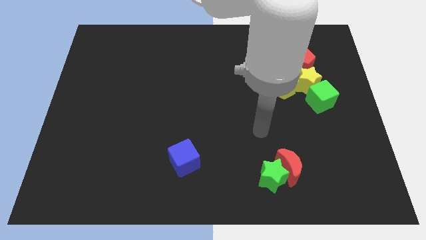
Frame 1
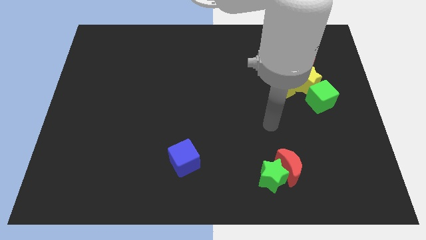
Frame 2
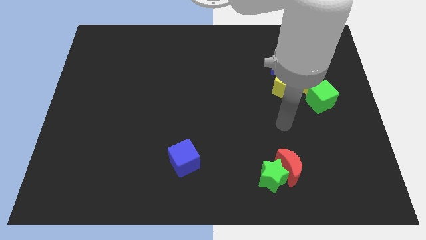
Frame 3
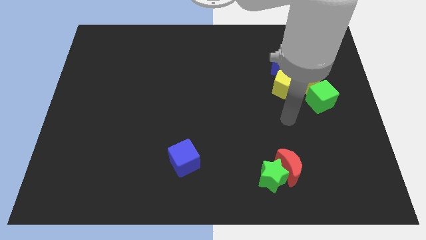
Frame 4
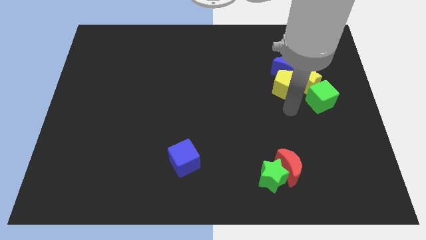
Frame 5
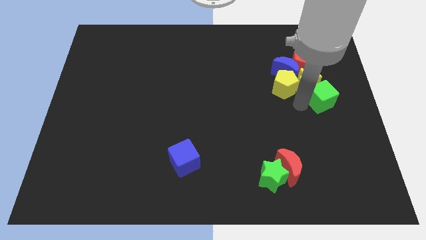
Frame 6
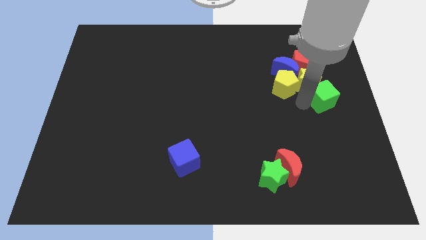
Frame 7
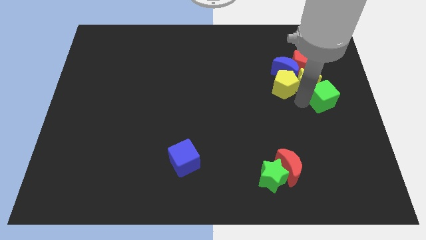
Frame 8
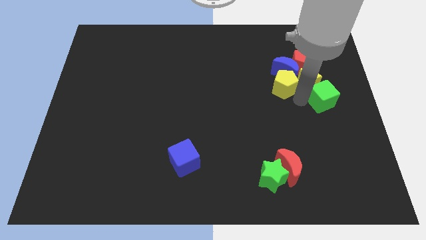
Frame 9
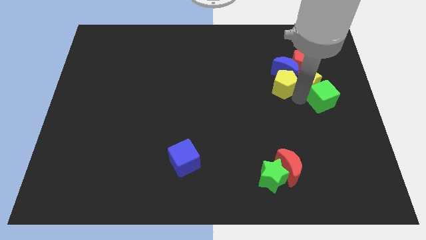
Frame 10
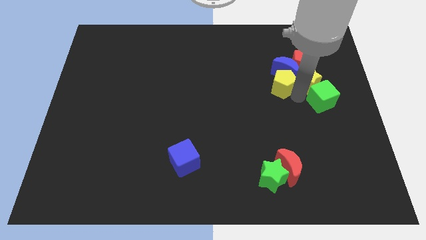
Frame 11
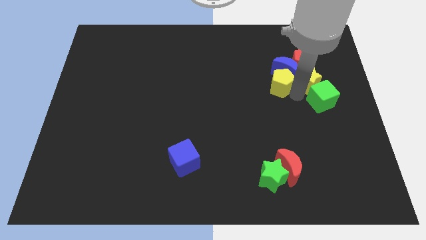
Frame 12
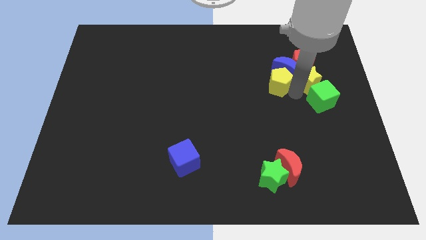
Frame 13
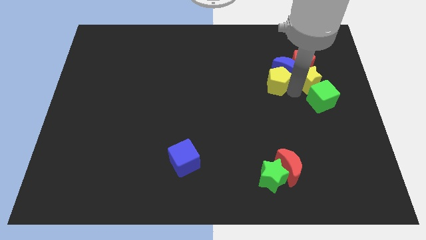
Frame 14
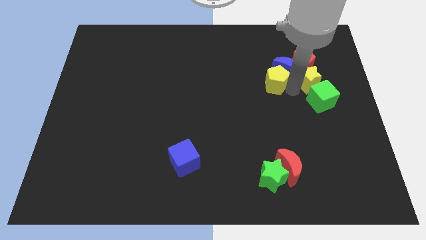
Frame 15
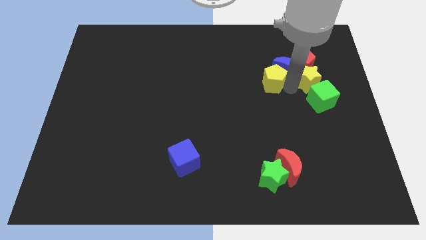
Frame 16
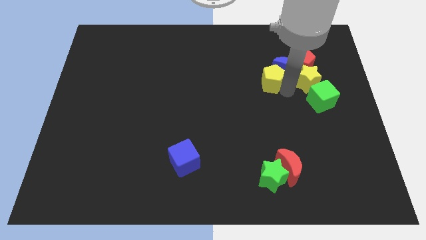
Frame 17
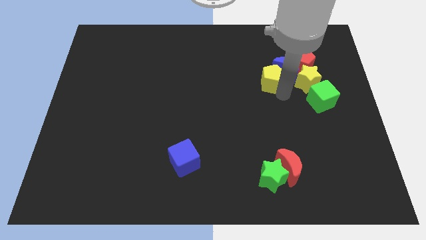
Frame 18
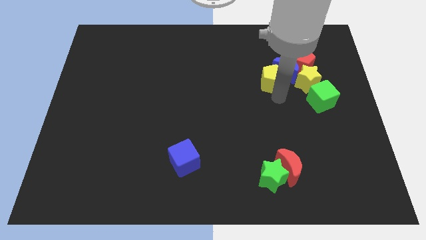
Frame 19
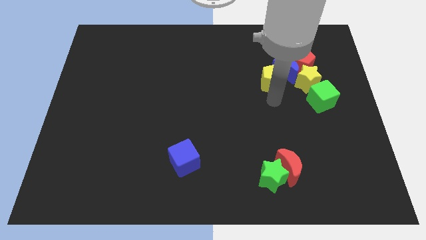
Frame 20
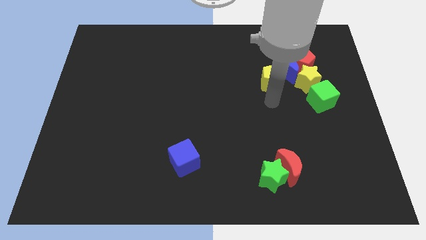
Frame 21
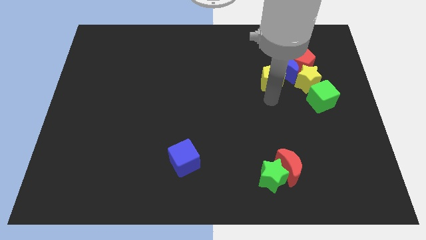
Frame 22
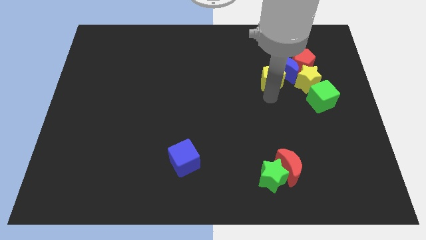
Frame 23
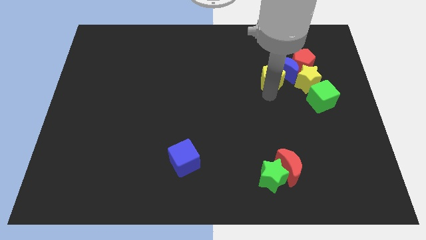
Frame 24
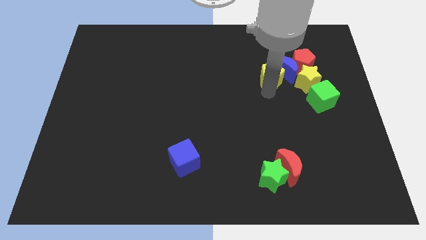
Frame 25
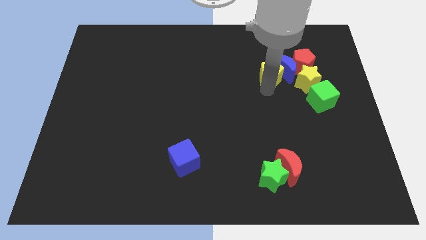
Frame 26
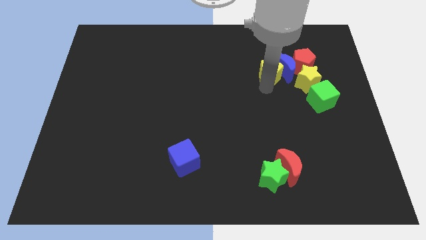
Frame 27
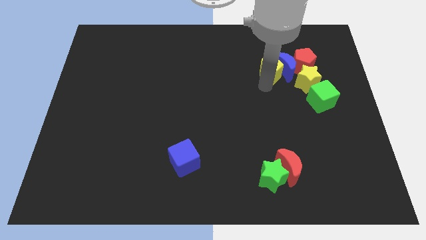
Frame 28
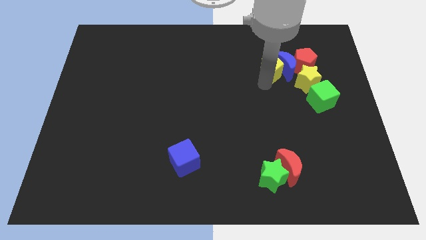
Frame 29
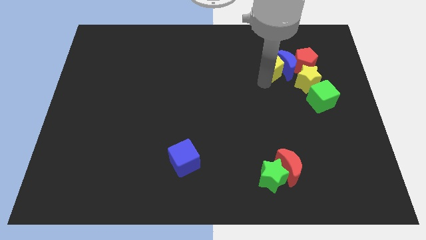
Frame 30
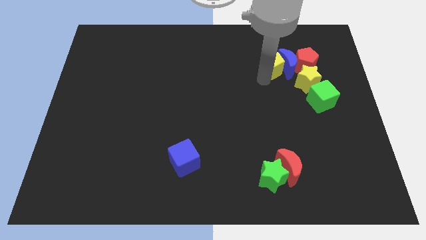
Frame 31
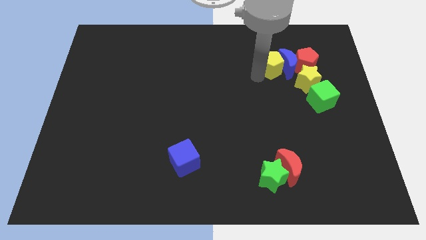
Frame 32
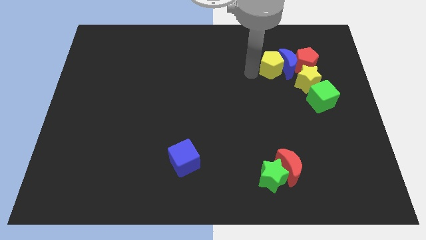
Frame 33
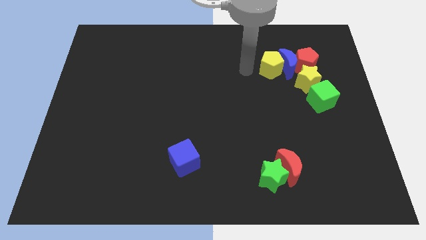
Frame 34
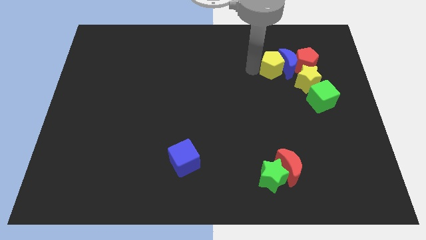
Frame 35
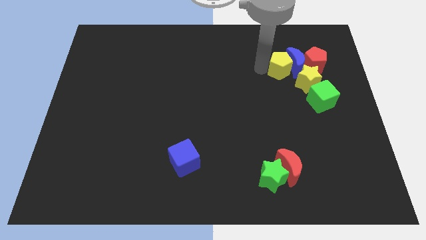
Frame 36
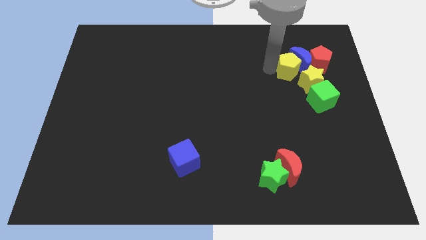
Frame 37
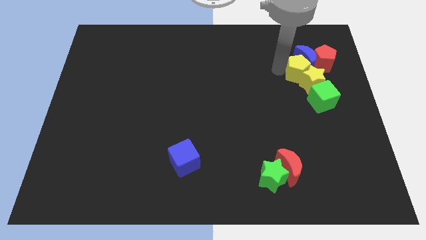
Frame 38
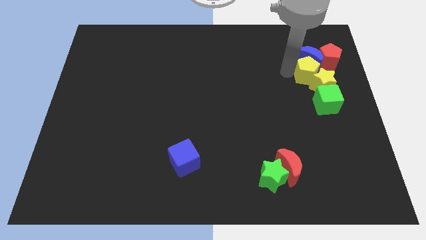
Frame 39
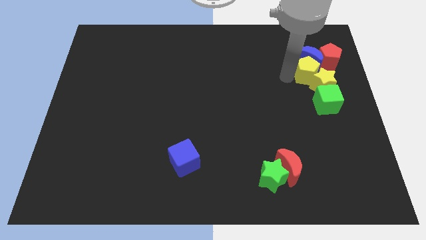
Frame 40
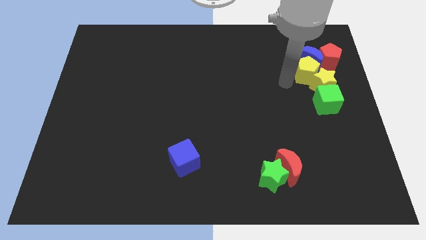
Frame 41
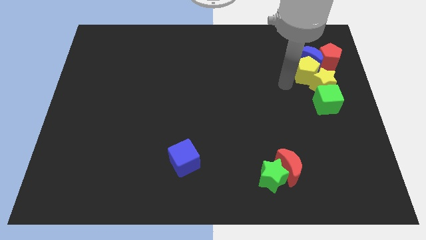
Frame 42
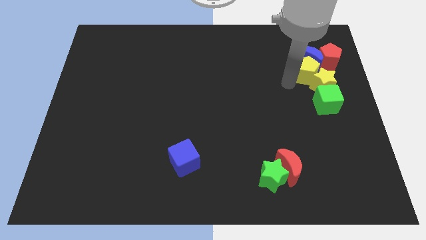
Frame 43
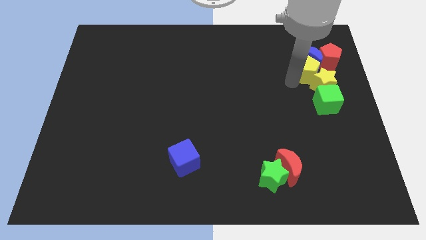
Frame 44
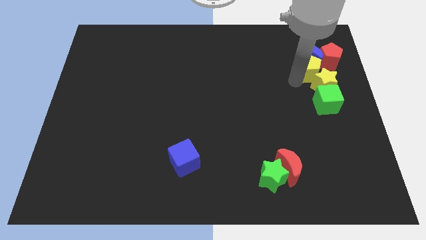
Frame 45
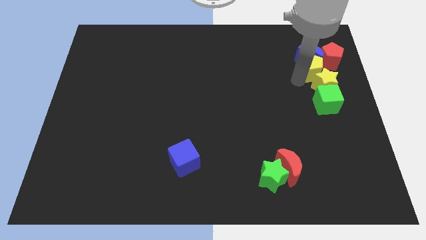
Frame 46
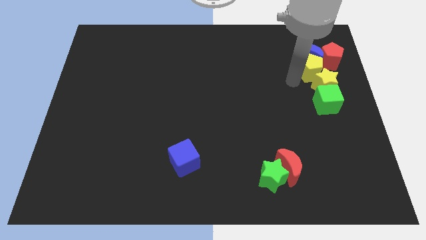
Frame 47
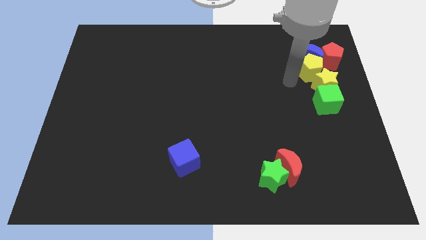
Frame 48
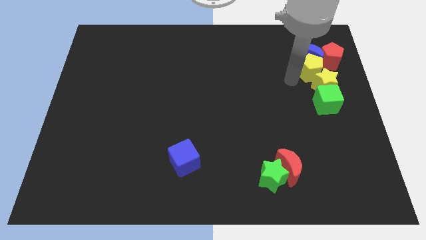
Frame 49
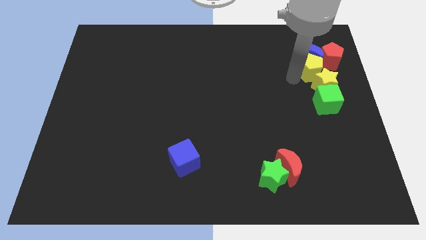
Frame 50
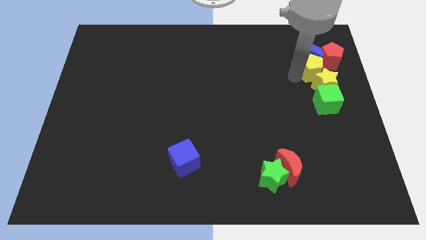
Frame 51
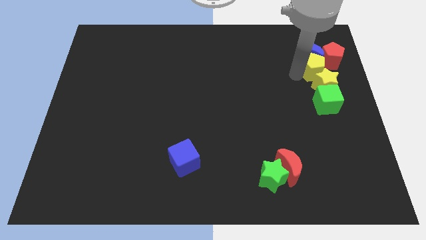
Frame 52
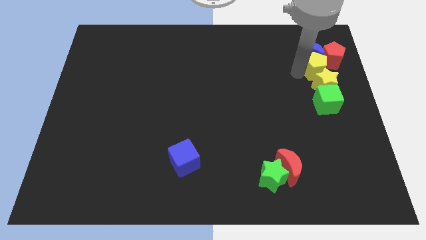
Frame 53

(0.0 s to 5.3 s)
put the yellow pentagon to the red pentagon

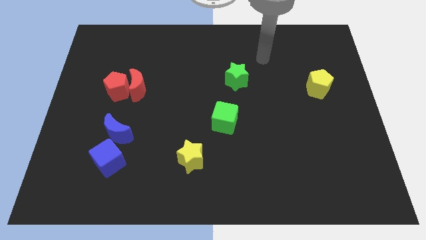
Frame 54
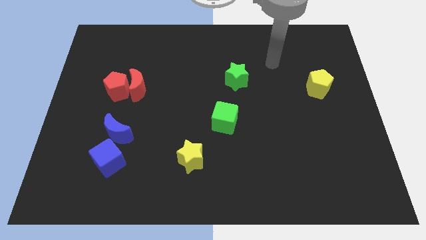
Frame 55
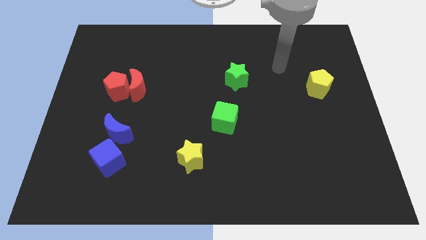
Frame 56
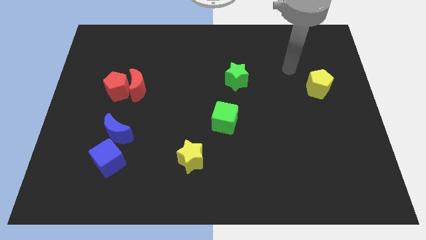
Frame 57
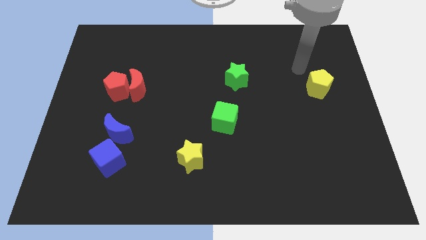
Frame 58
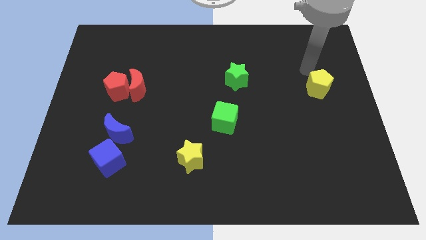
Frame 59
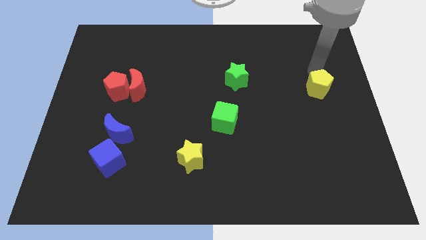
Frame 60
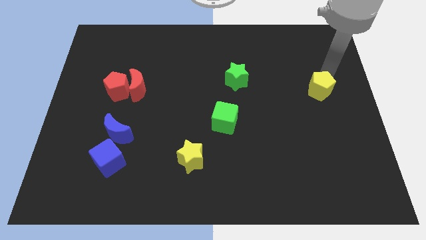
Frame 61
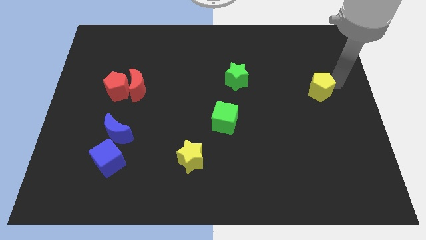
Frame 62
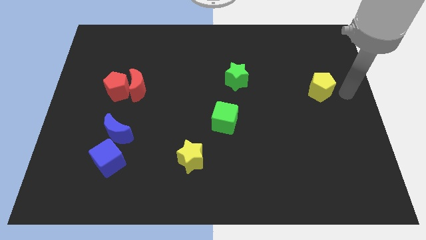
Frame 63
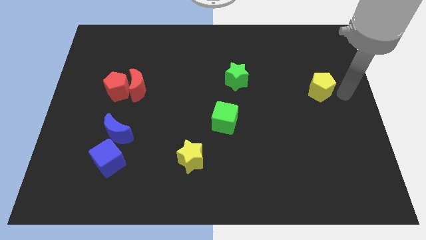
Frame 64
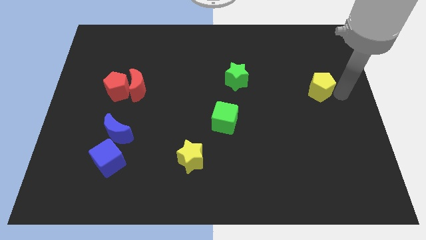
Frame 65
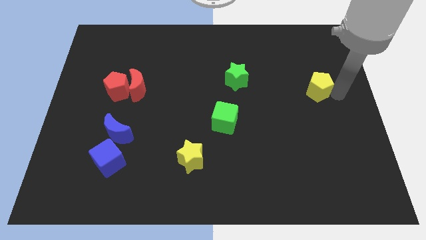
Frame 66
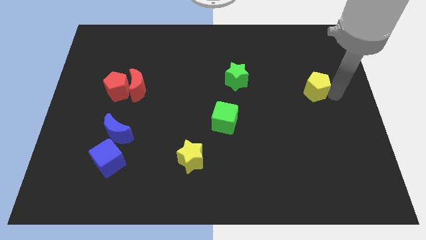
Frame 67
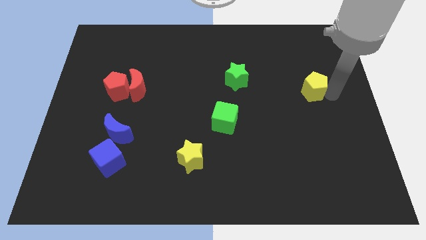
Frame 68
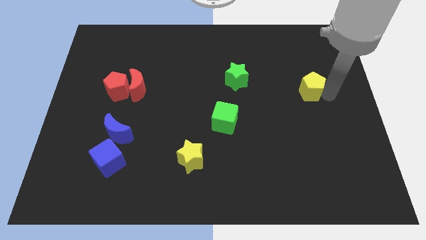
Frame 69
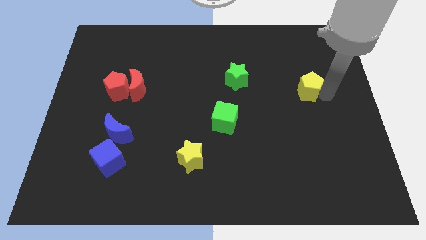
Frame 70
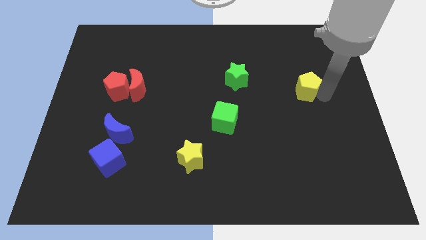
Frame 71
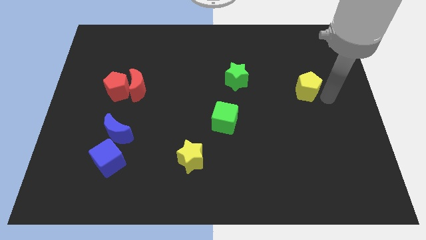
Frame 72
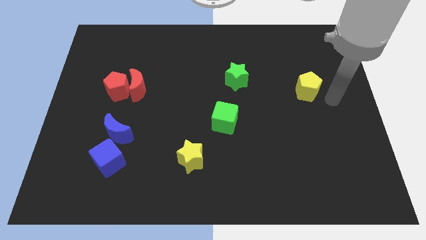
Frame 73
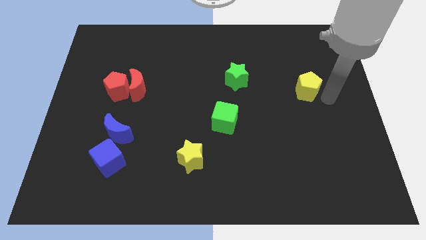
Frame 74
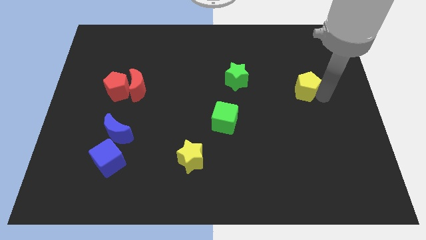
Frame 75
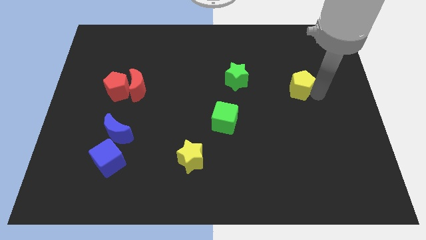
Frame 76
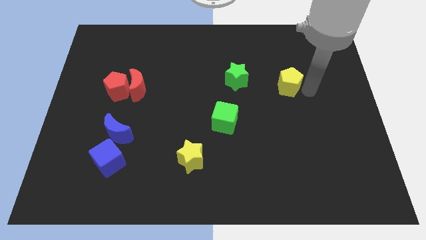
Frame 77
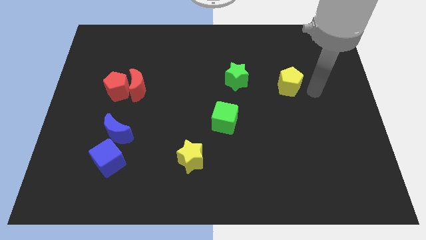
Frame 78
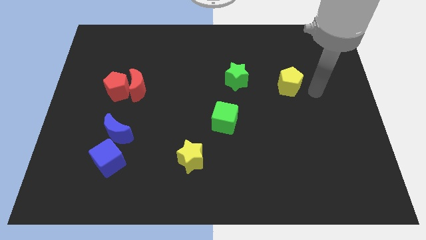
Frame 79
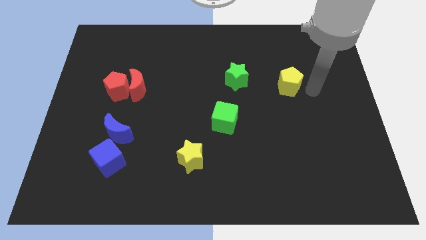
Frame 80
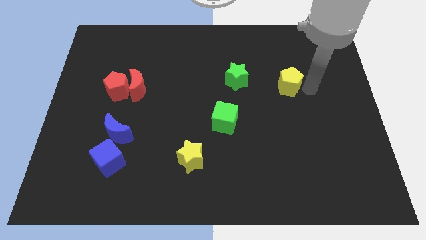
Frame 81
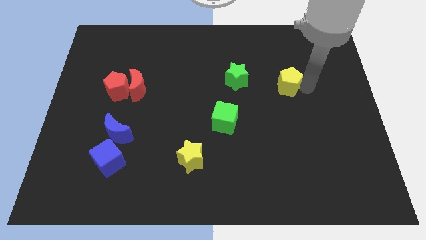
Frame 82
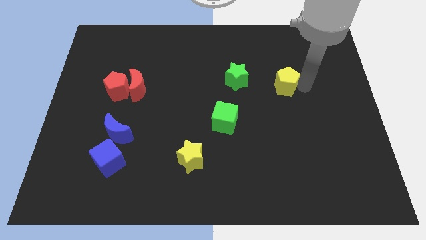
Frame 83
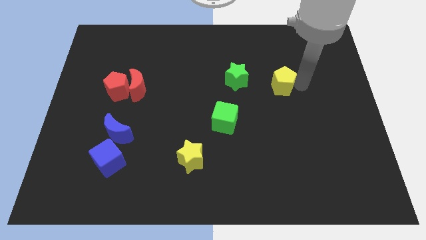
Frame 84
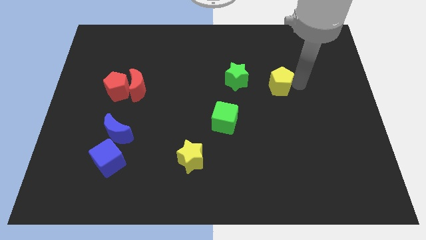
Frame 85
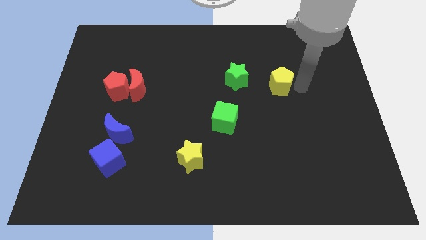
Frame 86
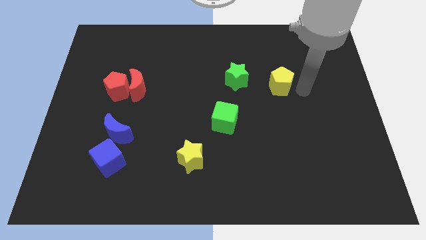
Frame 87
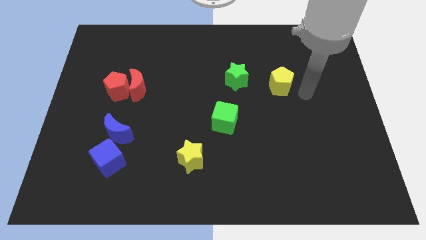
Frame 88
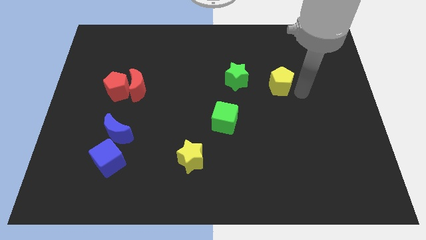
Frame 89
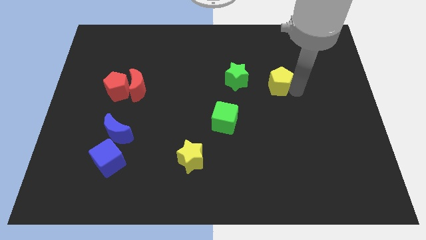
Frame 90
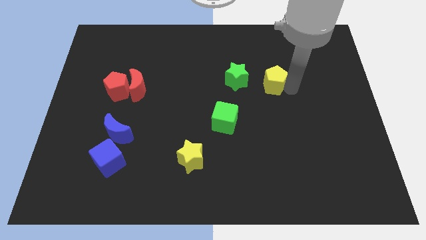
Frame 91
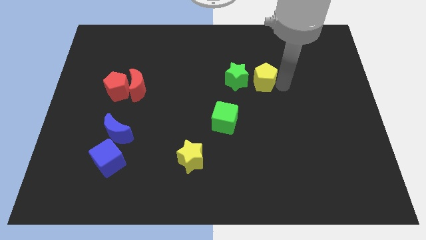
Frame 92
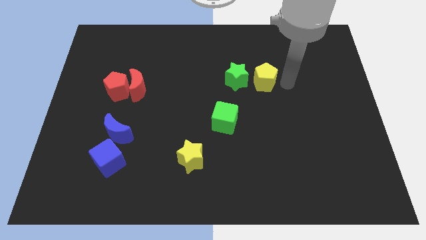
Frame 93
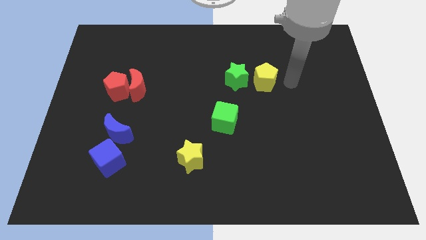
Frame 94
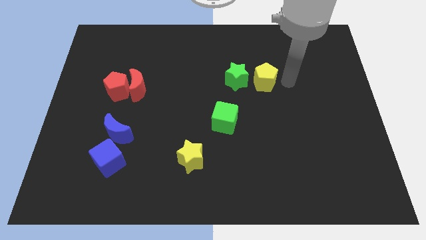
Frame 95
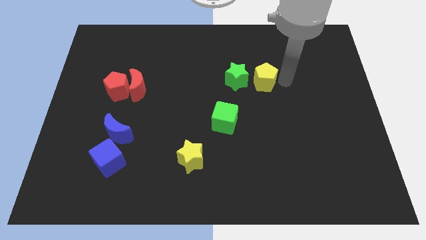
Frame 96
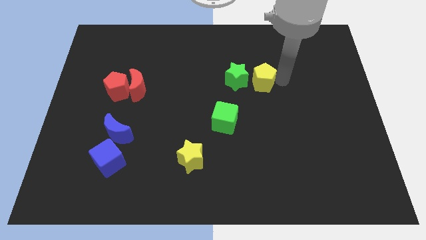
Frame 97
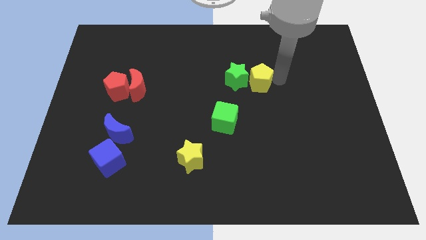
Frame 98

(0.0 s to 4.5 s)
move the yellow pentagon close to the green star
